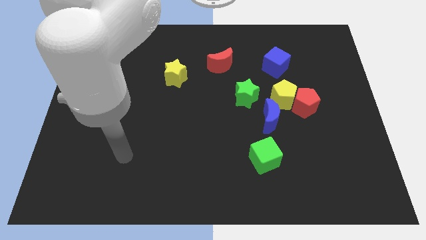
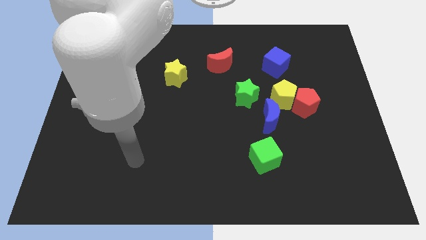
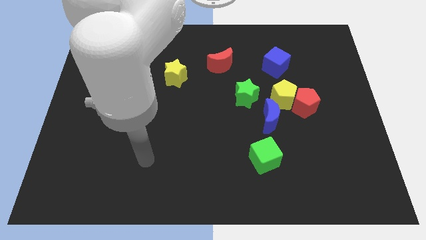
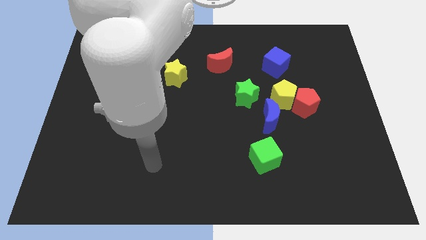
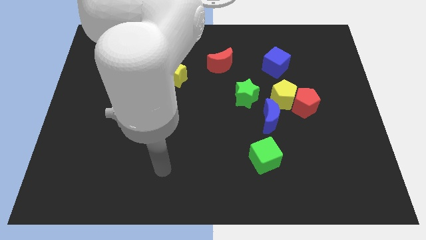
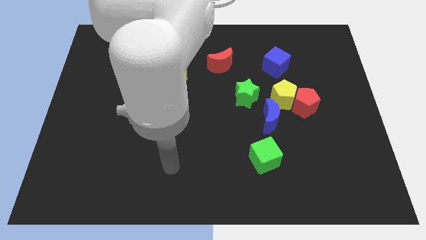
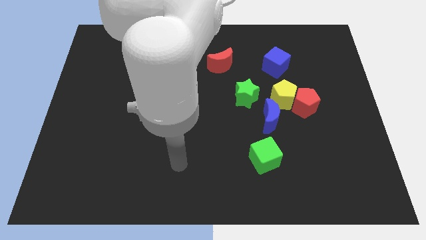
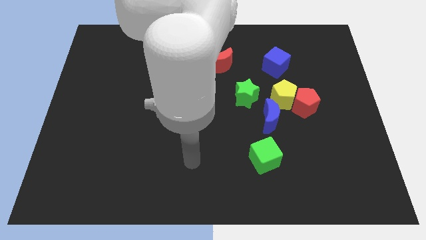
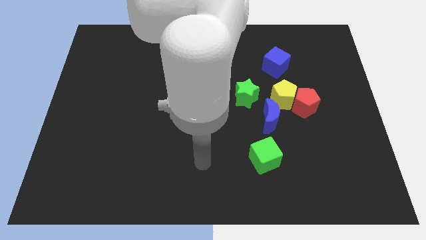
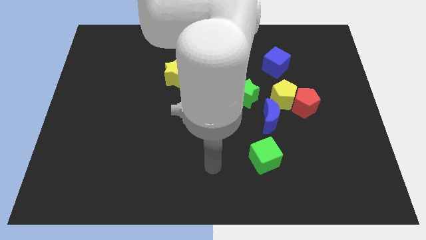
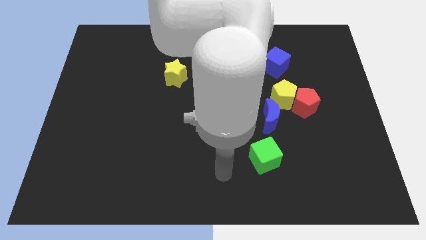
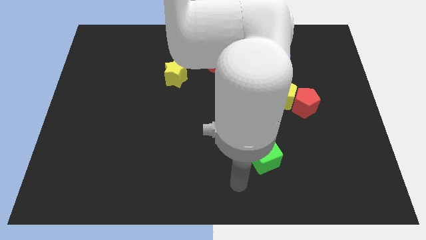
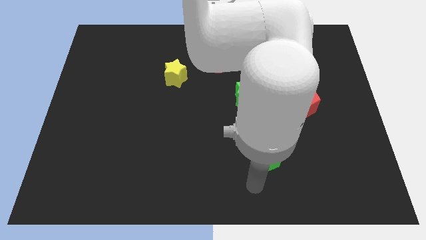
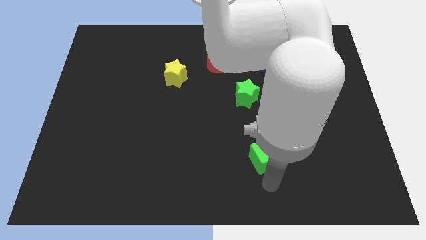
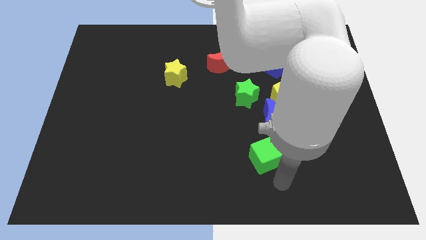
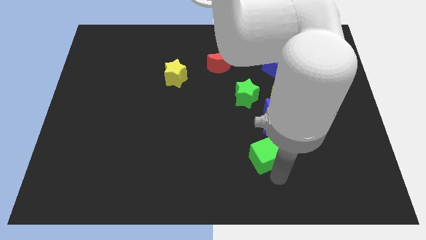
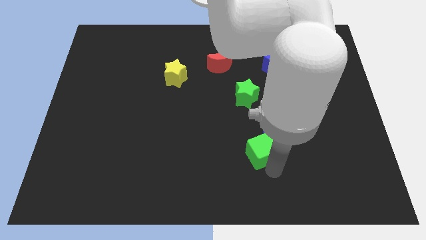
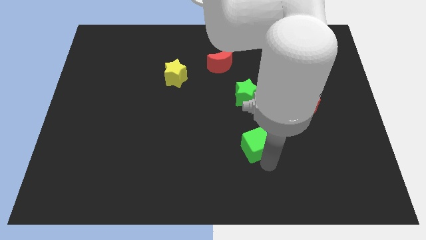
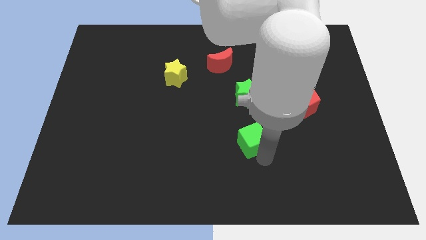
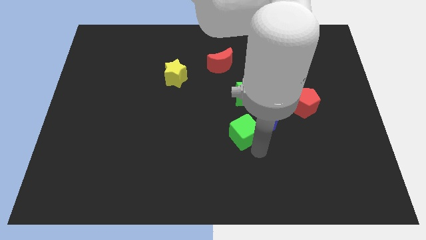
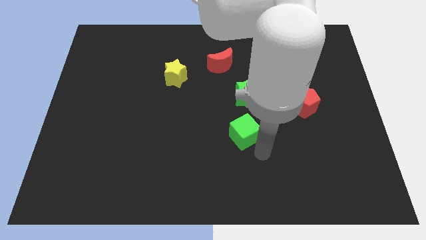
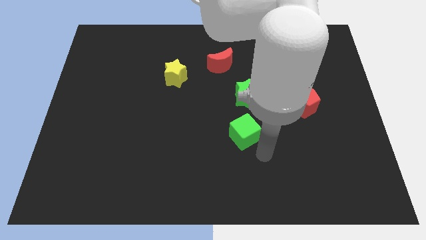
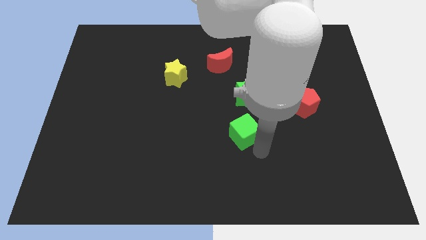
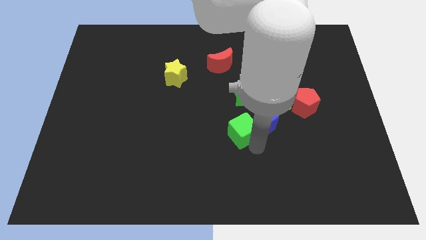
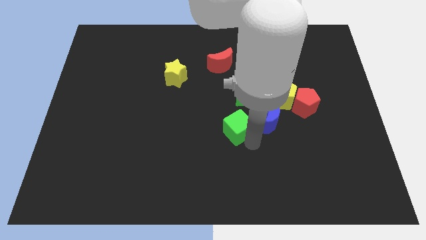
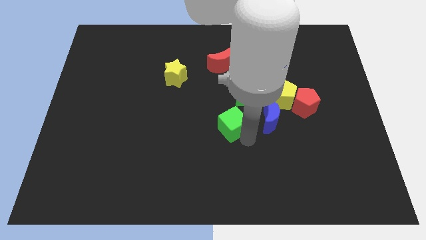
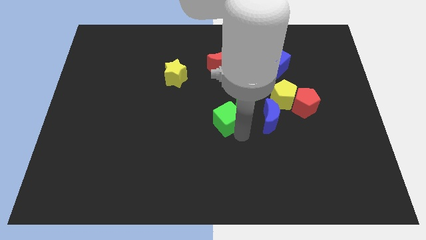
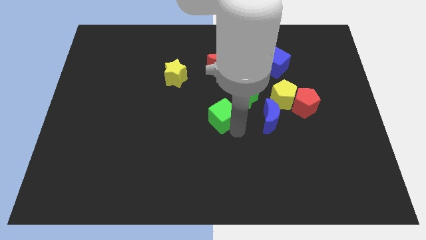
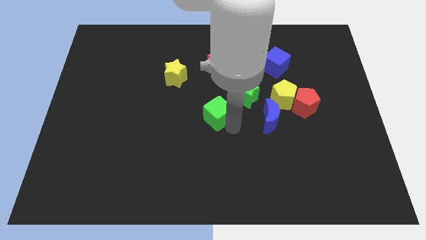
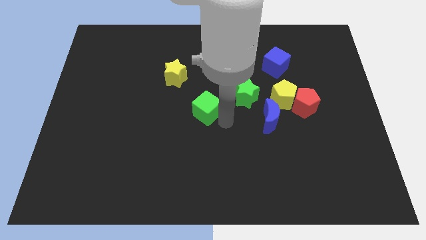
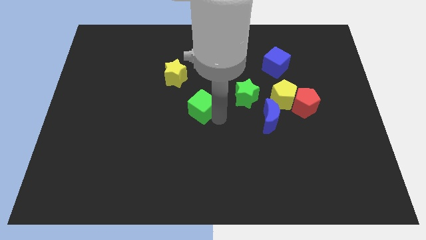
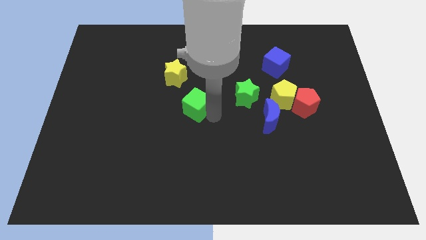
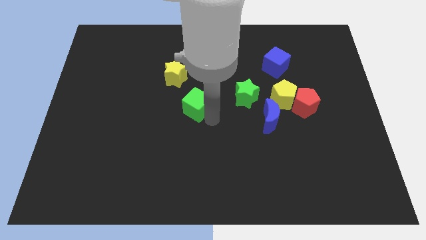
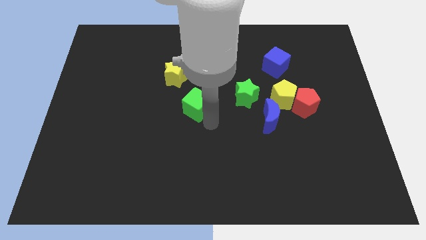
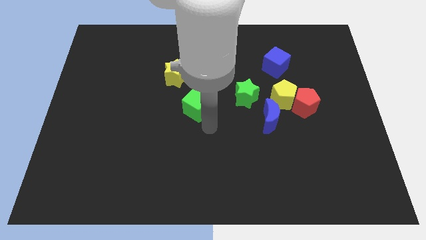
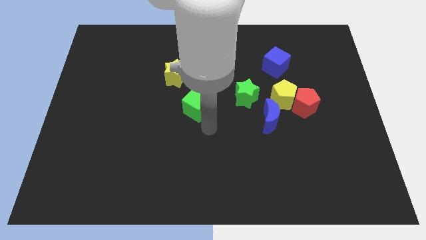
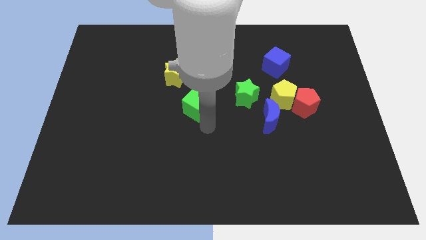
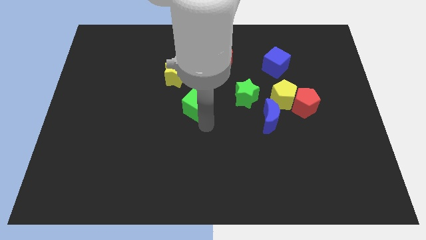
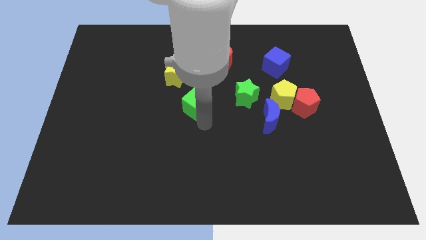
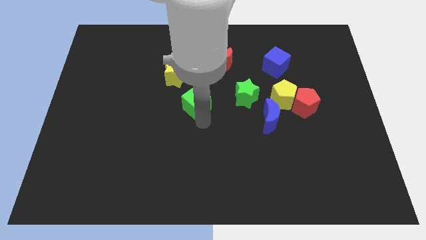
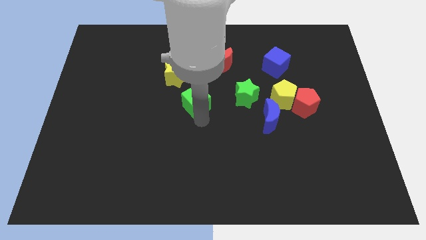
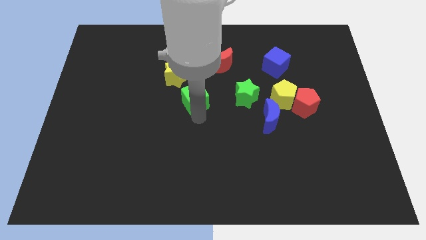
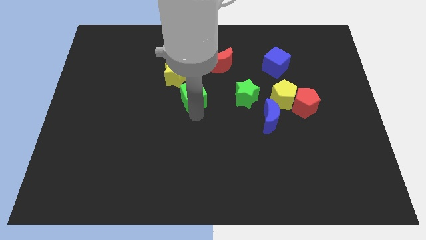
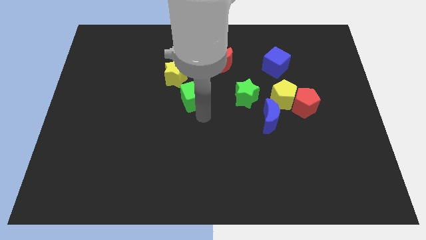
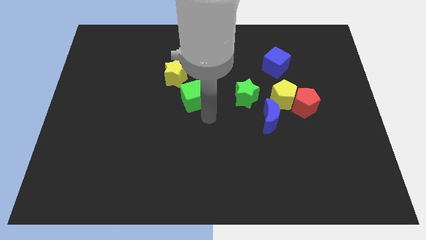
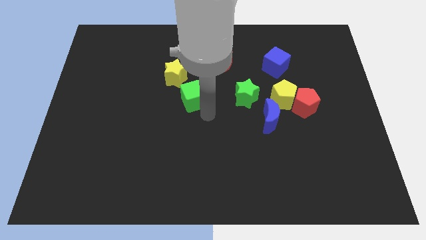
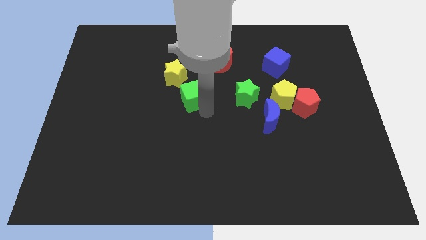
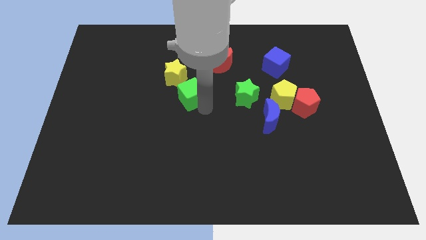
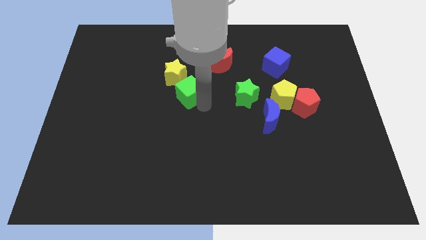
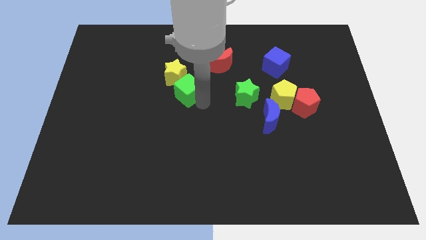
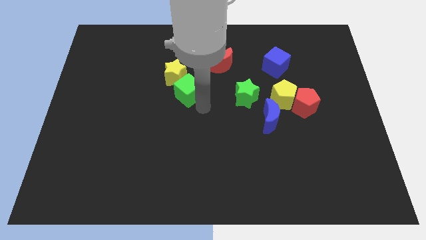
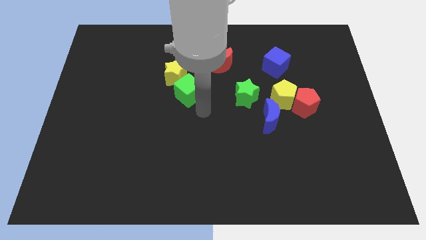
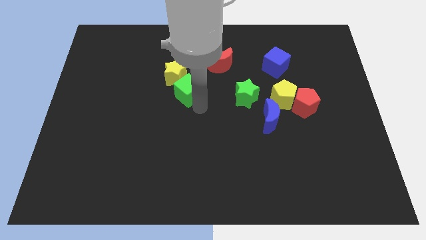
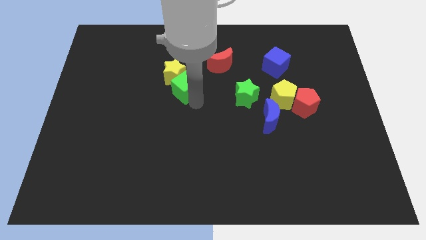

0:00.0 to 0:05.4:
slide the green cube close to the yellow star

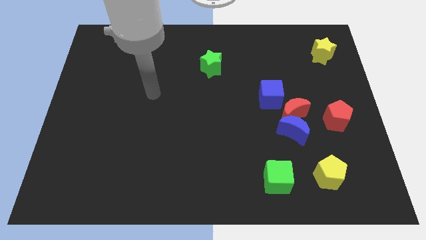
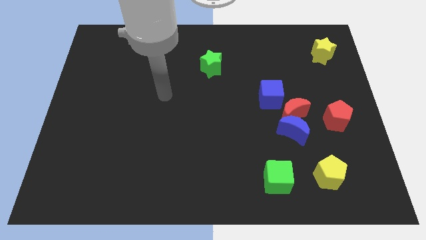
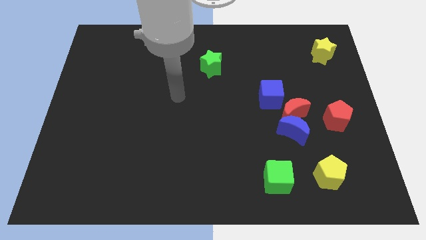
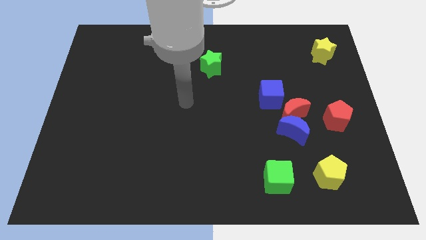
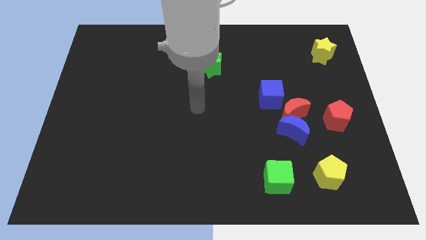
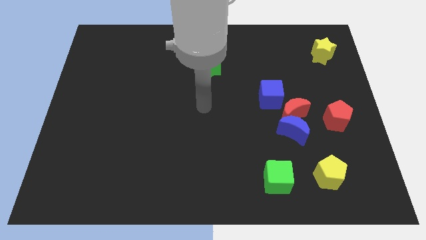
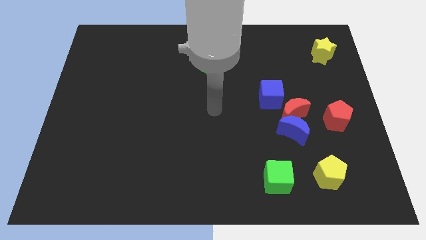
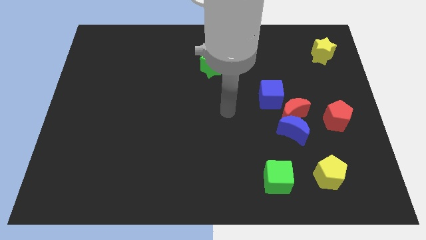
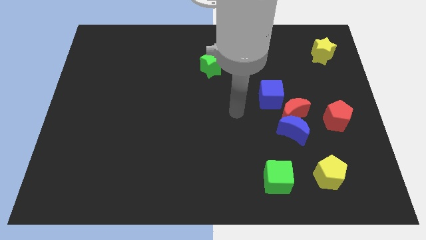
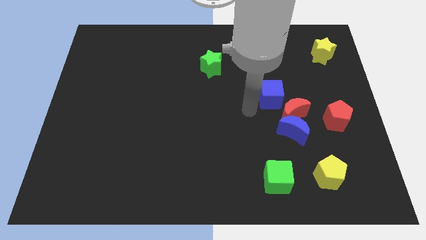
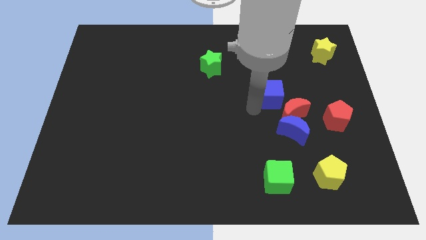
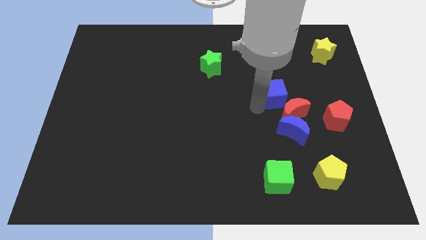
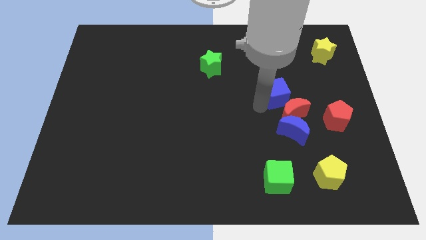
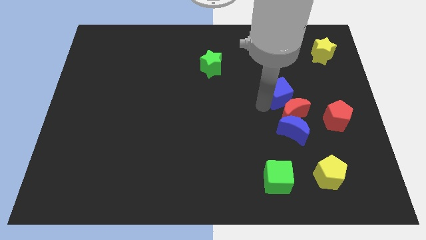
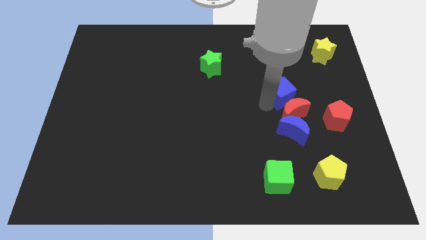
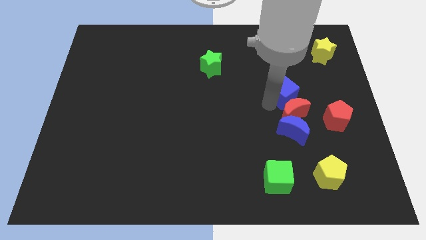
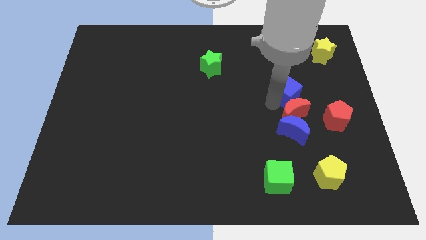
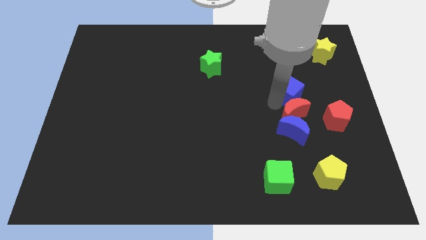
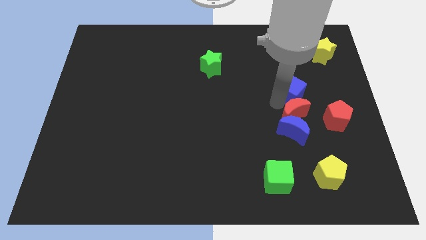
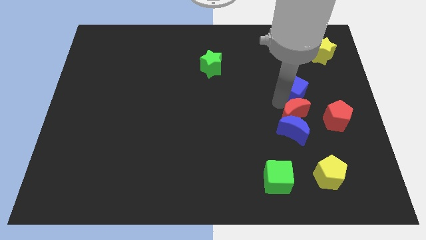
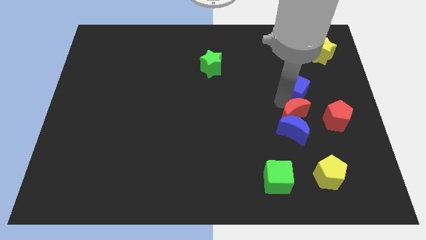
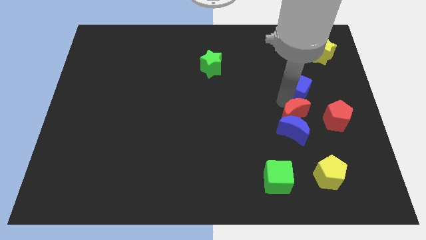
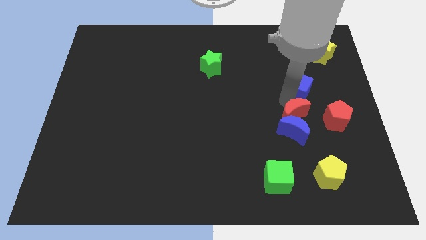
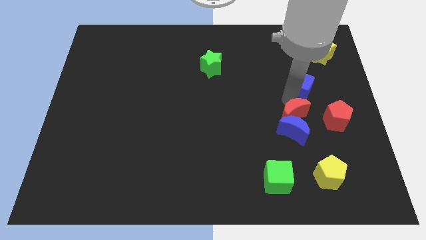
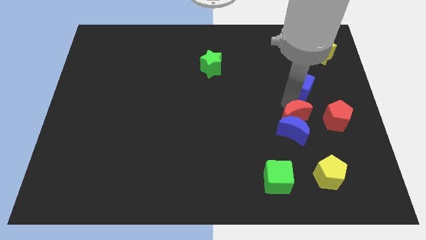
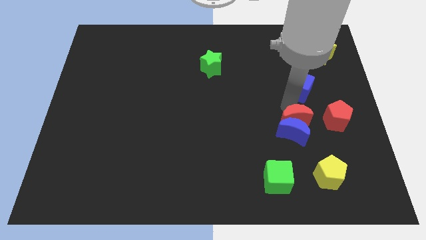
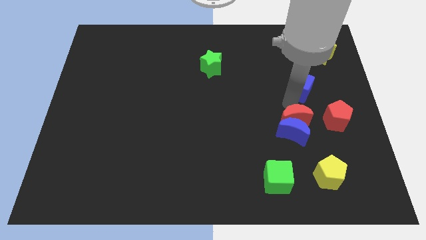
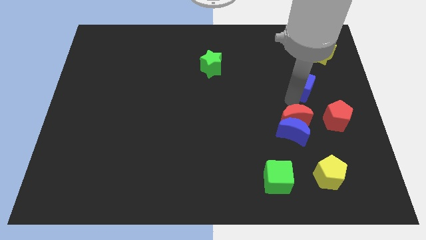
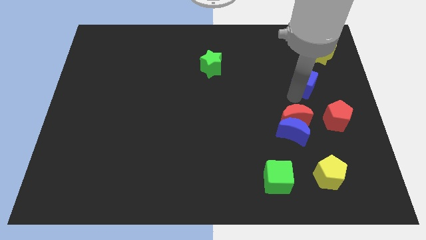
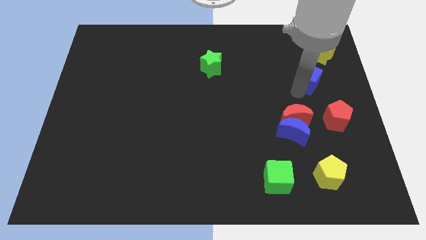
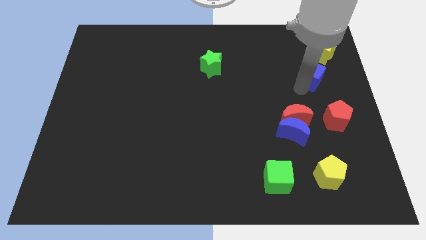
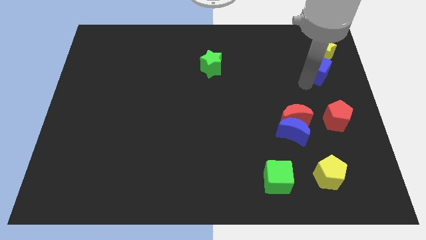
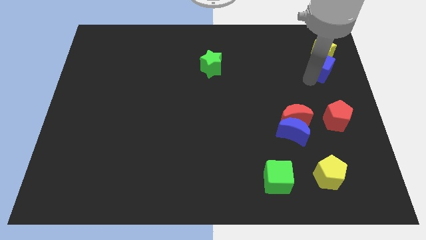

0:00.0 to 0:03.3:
put the blue cube next to the yellow star
